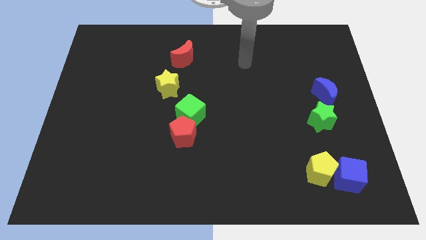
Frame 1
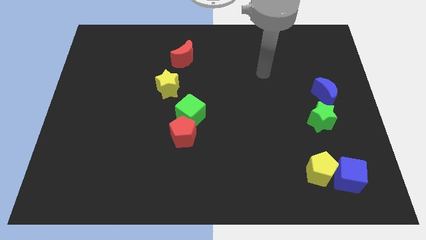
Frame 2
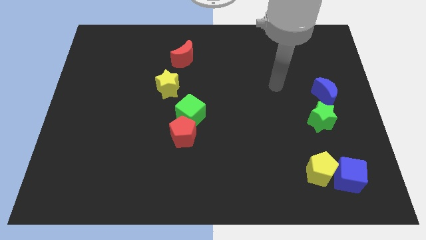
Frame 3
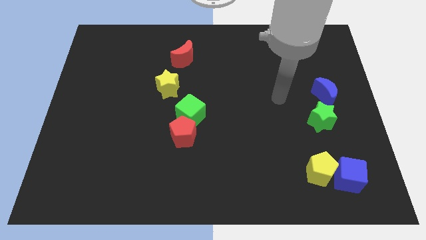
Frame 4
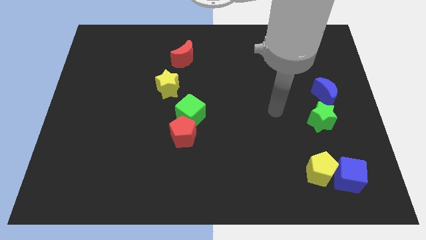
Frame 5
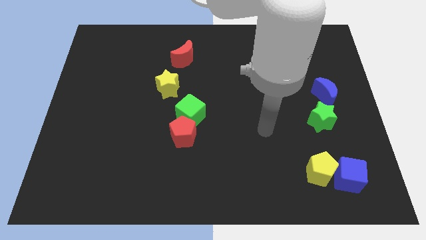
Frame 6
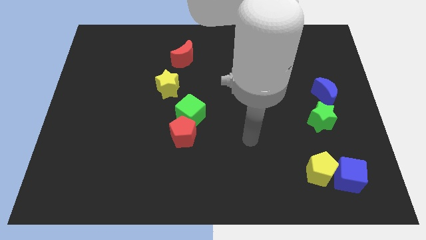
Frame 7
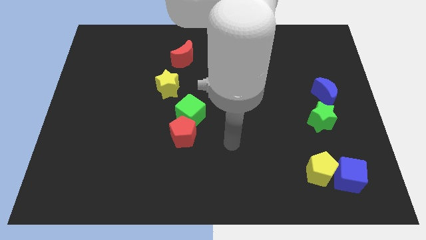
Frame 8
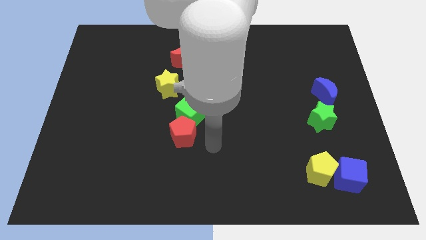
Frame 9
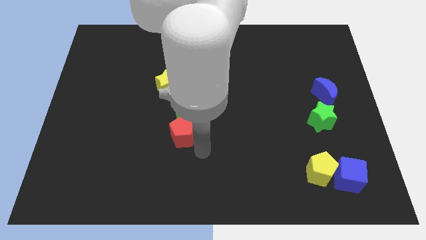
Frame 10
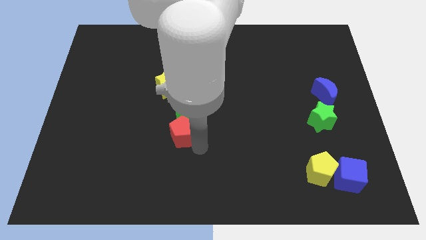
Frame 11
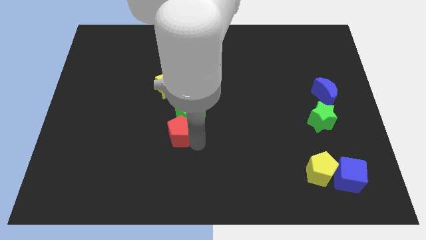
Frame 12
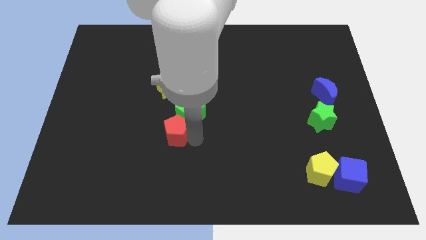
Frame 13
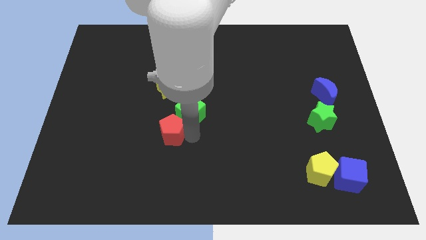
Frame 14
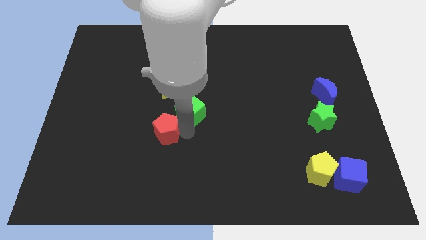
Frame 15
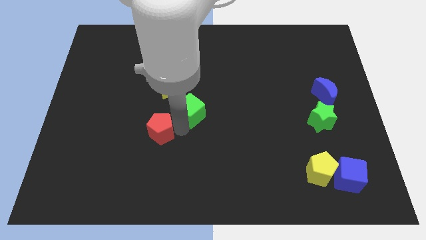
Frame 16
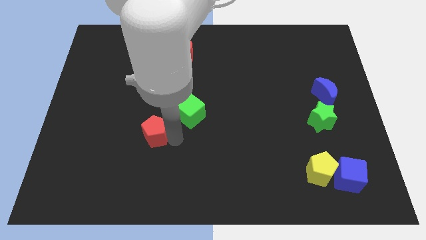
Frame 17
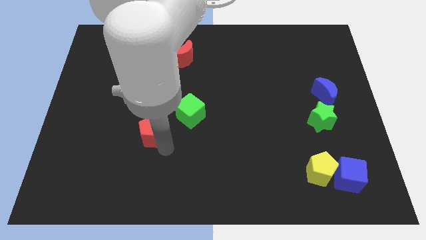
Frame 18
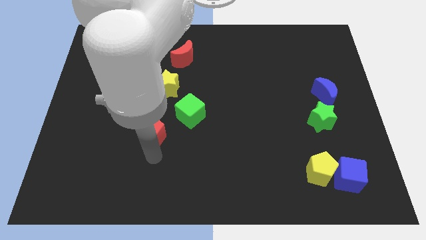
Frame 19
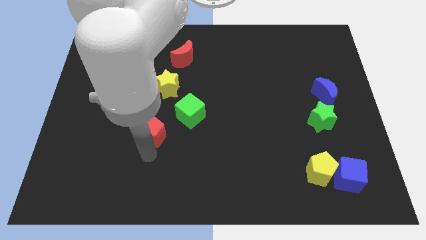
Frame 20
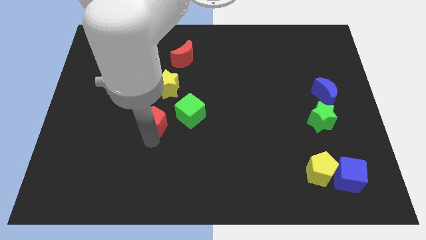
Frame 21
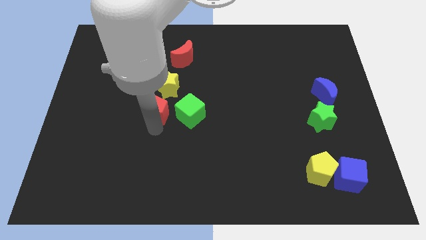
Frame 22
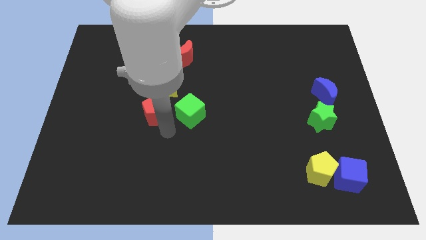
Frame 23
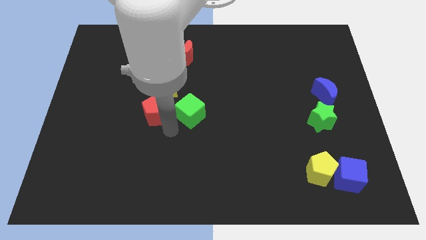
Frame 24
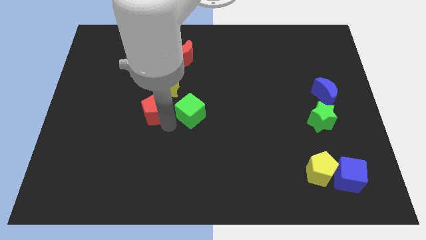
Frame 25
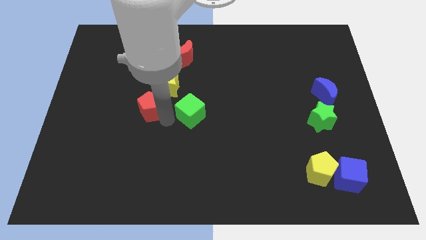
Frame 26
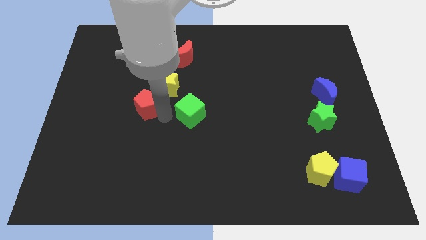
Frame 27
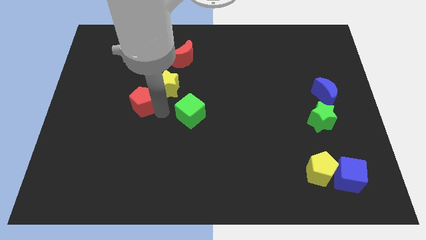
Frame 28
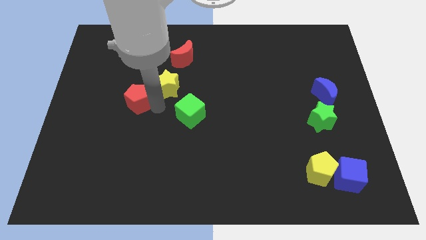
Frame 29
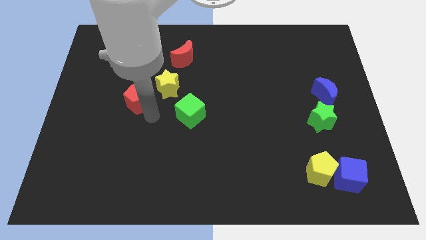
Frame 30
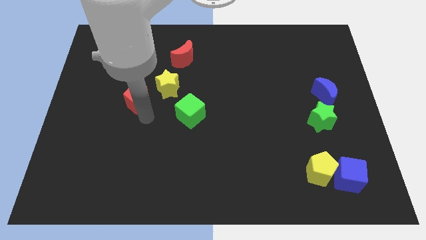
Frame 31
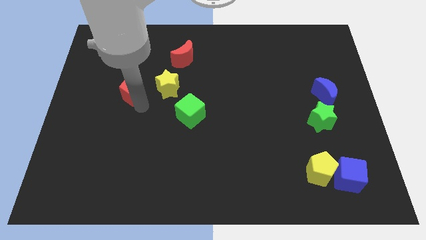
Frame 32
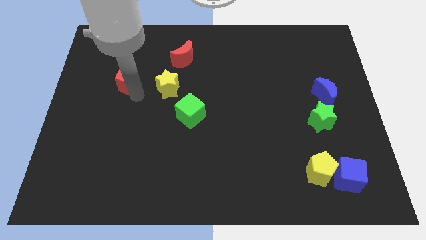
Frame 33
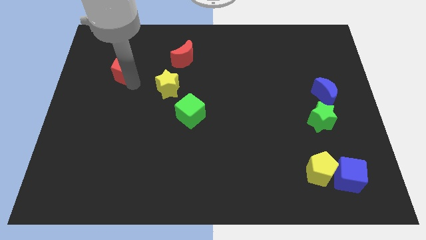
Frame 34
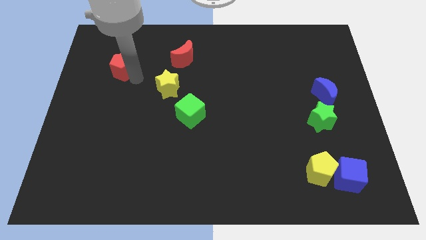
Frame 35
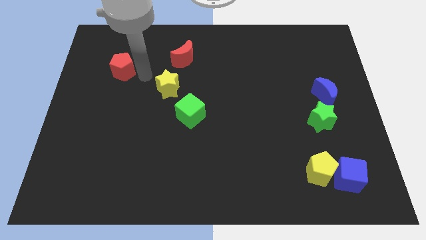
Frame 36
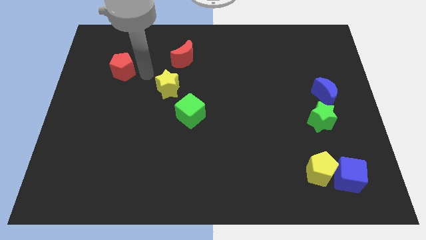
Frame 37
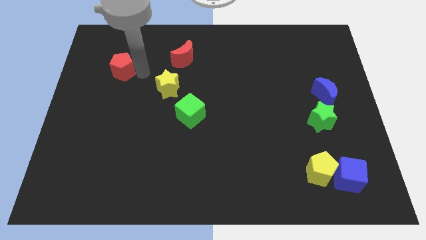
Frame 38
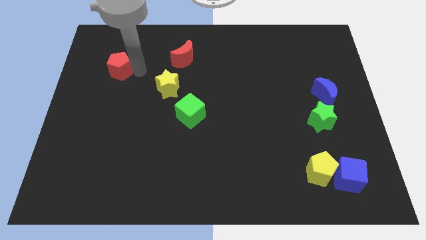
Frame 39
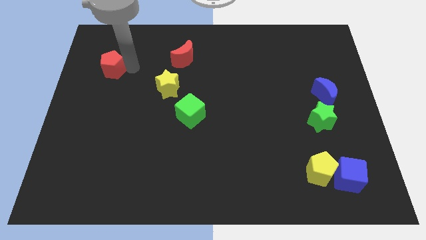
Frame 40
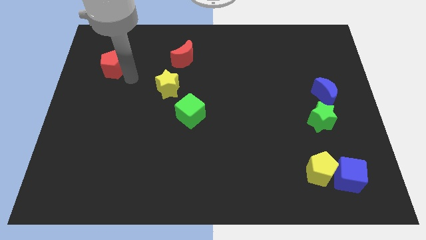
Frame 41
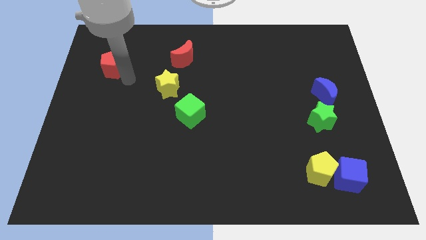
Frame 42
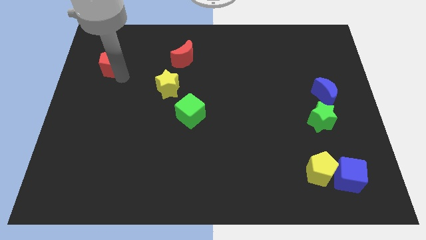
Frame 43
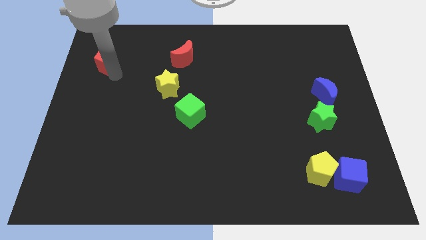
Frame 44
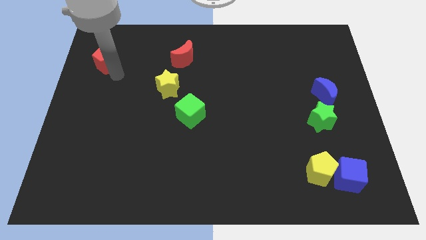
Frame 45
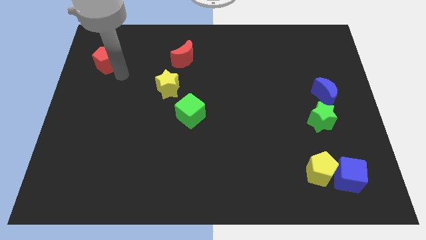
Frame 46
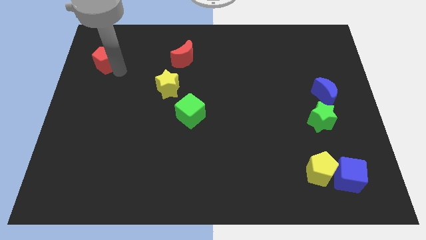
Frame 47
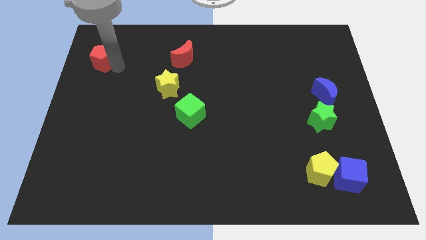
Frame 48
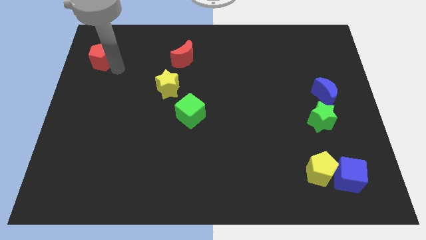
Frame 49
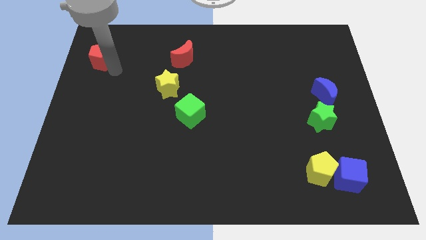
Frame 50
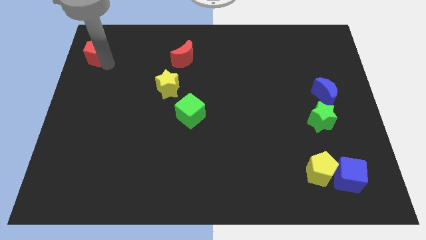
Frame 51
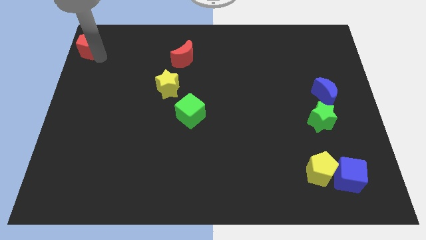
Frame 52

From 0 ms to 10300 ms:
slide the red pentagon to the top left of the board

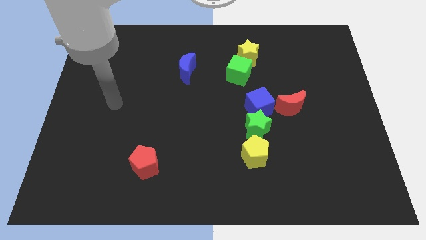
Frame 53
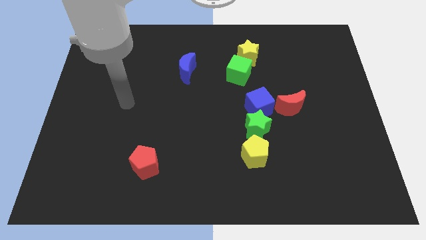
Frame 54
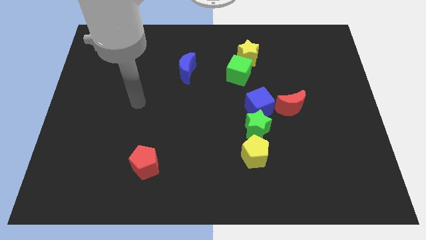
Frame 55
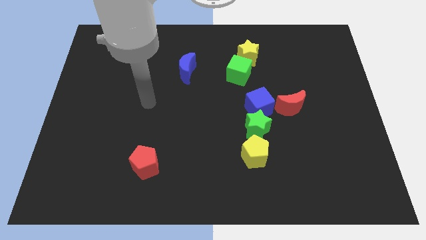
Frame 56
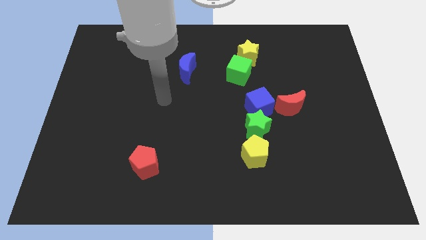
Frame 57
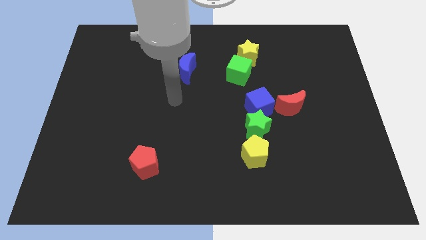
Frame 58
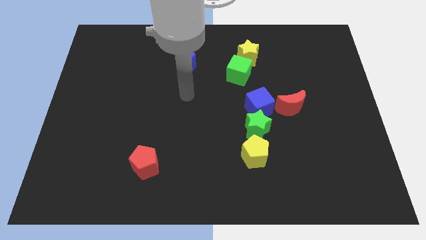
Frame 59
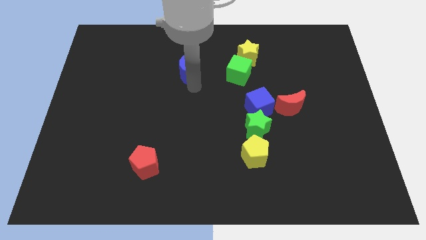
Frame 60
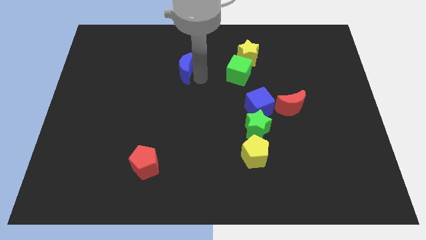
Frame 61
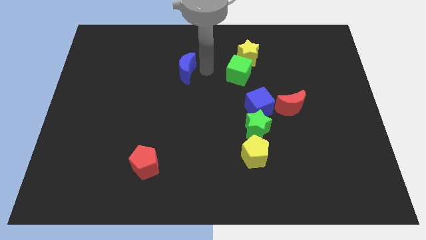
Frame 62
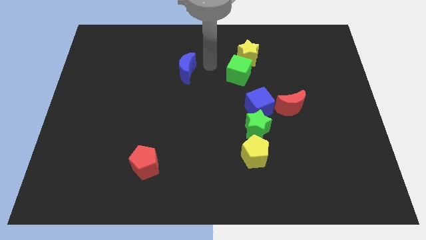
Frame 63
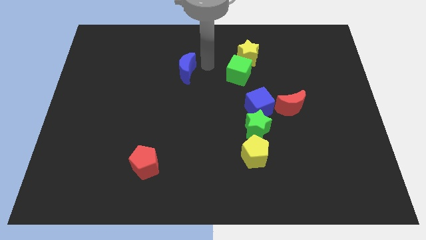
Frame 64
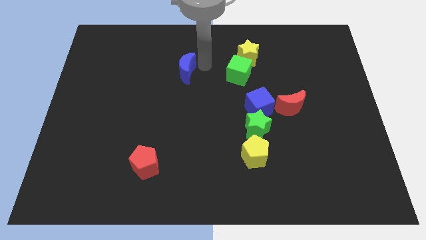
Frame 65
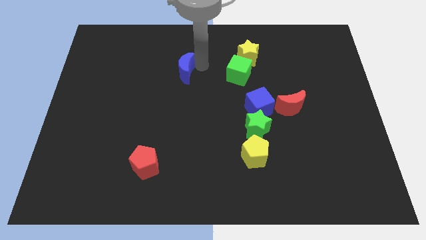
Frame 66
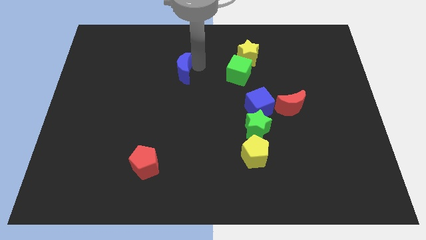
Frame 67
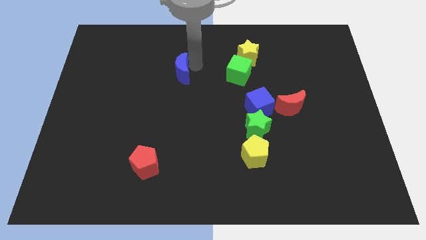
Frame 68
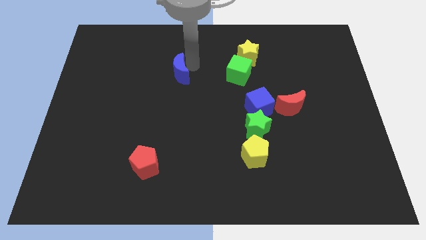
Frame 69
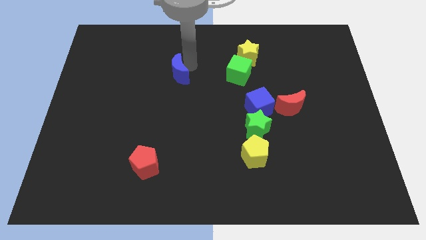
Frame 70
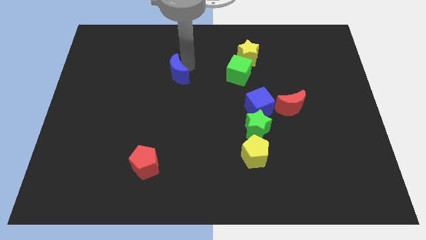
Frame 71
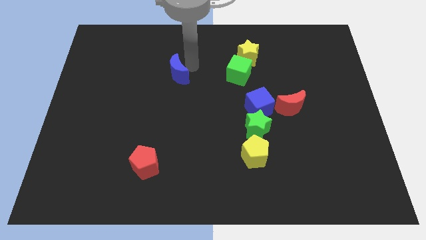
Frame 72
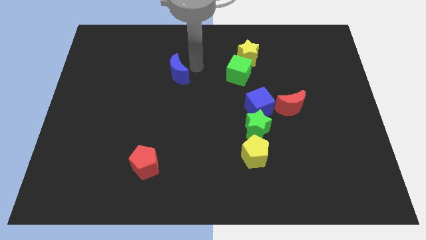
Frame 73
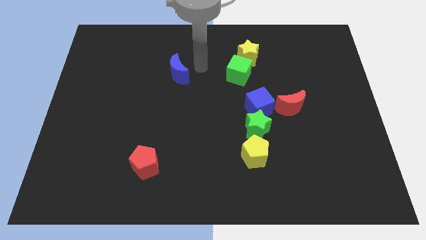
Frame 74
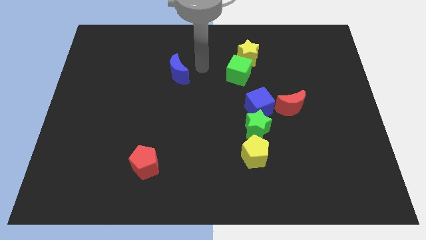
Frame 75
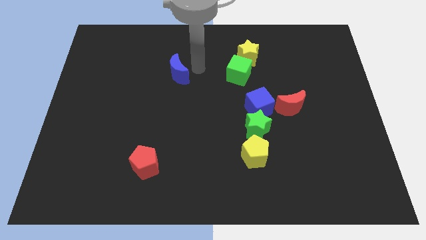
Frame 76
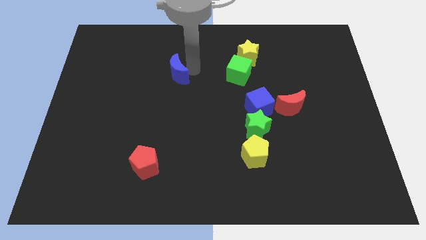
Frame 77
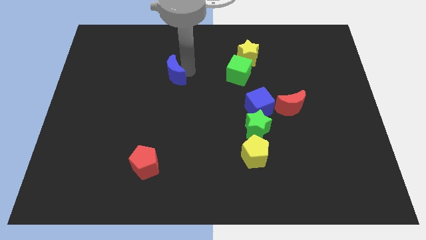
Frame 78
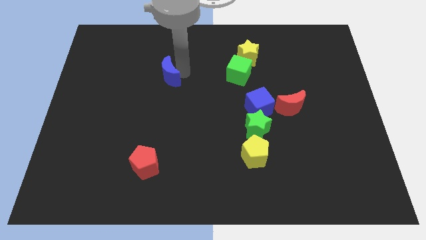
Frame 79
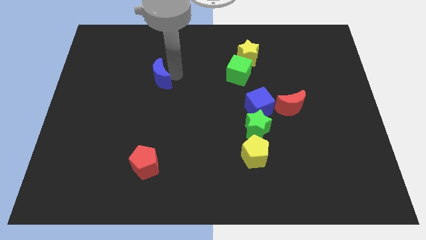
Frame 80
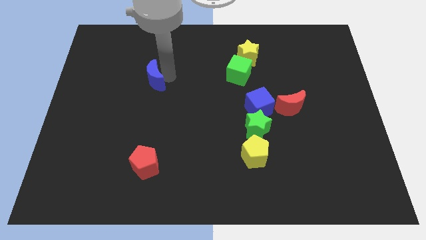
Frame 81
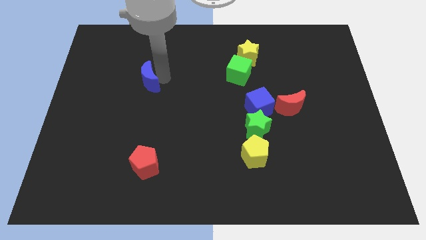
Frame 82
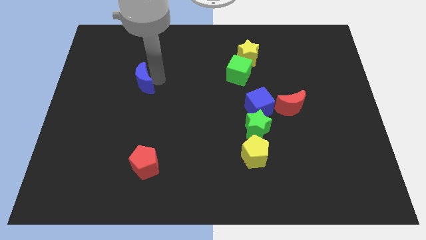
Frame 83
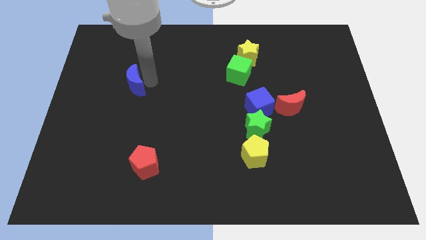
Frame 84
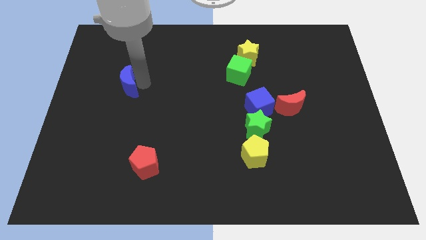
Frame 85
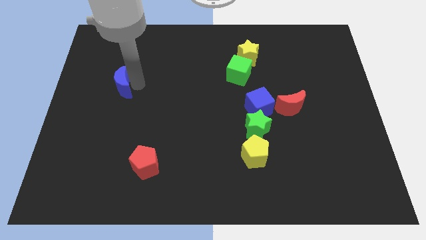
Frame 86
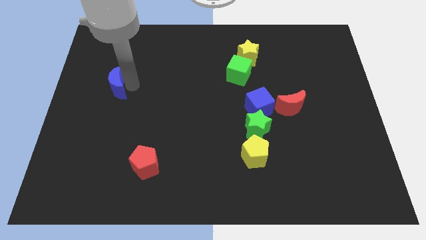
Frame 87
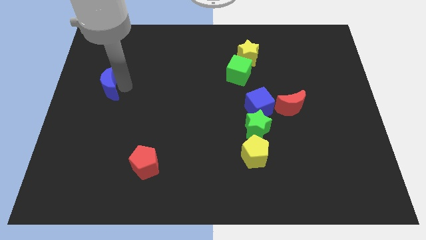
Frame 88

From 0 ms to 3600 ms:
put the blue moon to the left side of the board
